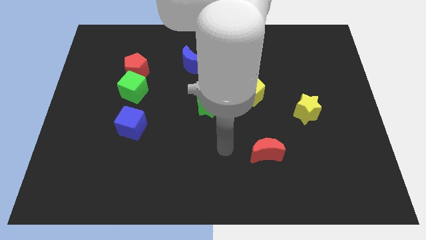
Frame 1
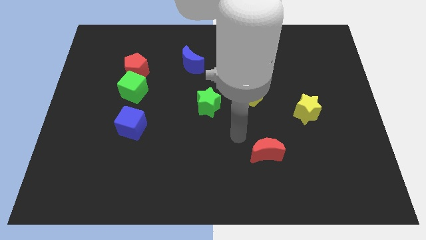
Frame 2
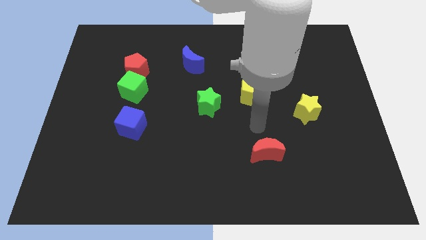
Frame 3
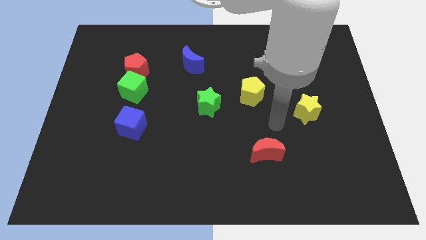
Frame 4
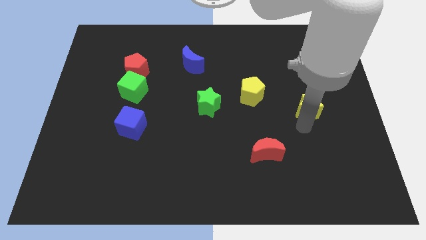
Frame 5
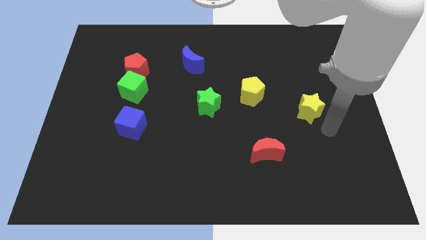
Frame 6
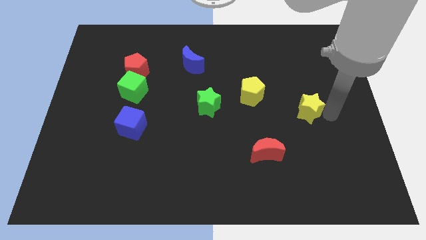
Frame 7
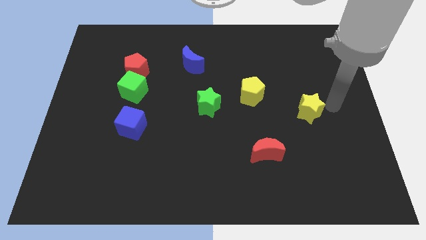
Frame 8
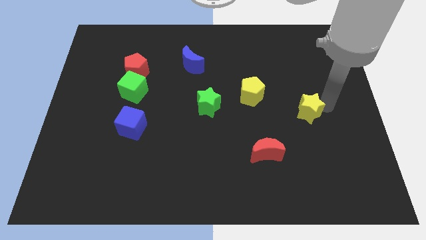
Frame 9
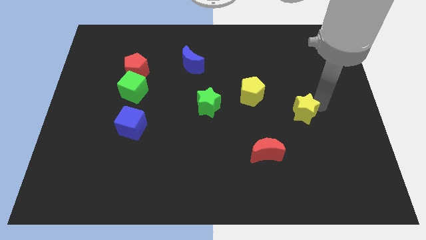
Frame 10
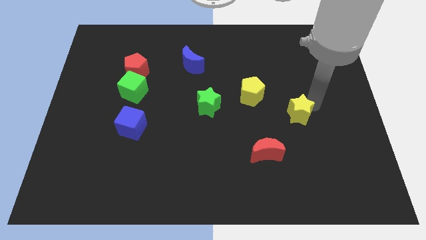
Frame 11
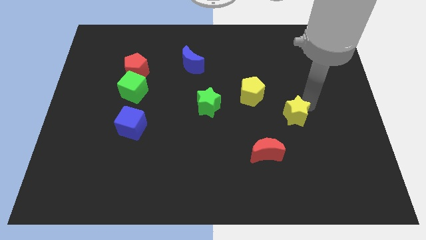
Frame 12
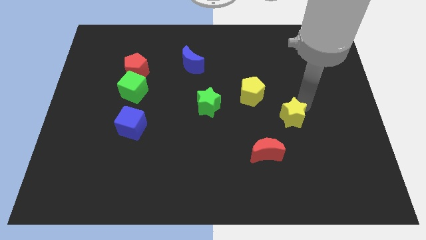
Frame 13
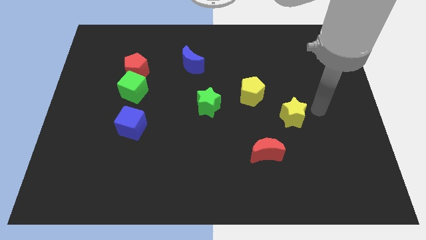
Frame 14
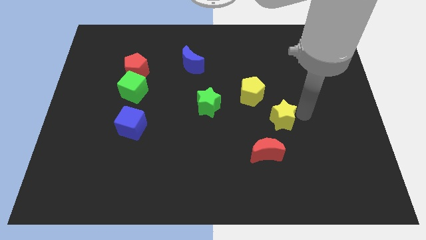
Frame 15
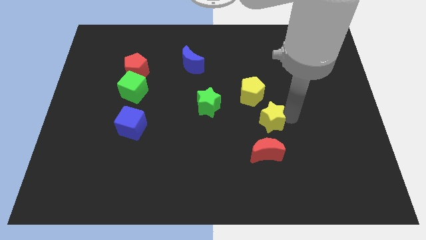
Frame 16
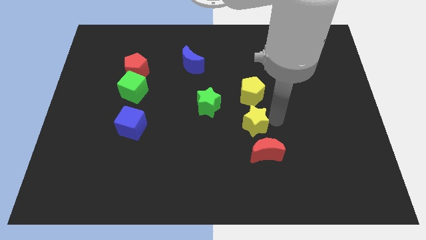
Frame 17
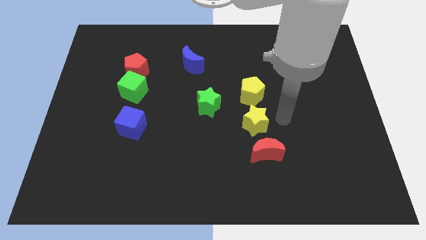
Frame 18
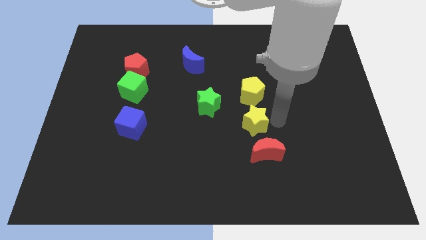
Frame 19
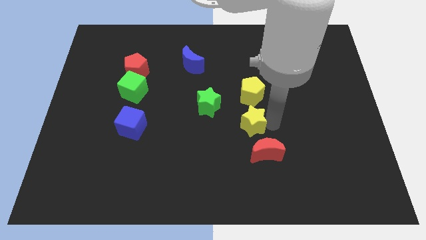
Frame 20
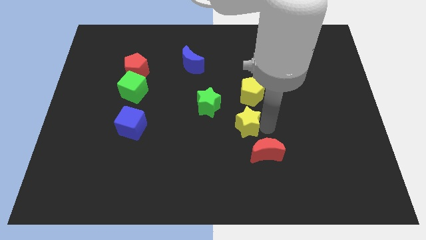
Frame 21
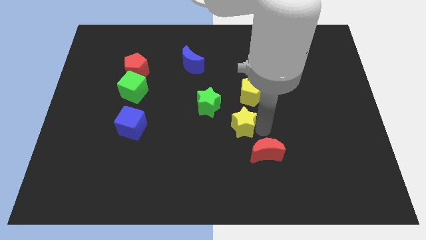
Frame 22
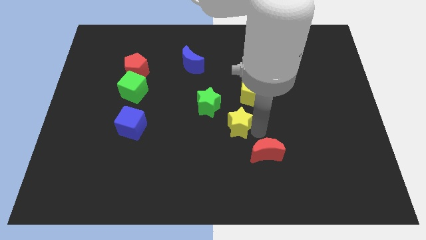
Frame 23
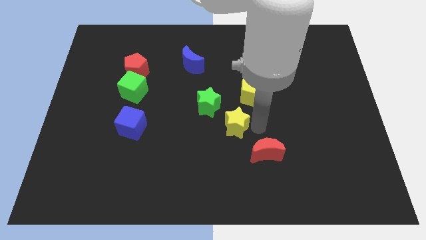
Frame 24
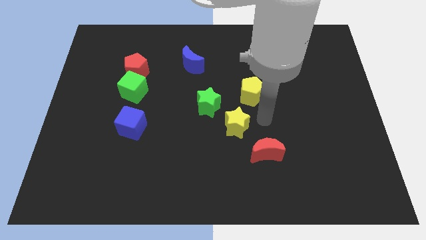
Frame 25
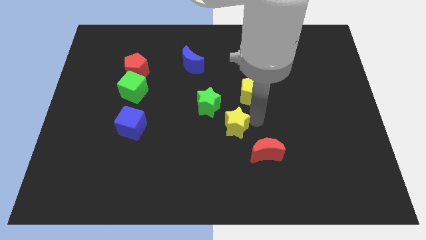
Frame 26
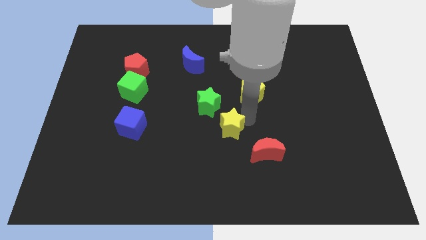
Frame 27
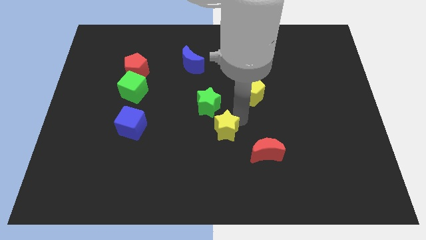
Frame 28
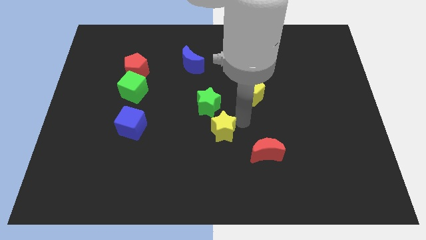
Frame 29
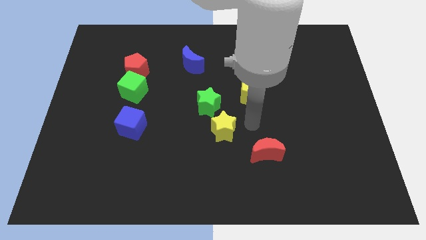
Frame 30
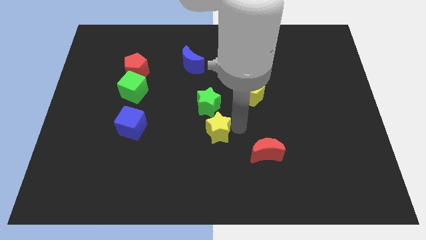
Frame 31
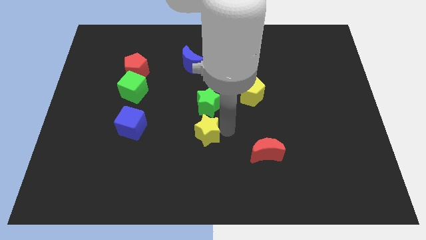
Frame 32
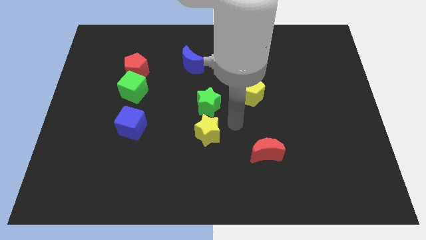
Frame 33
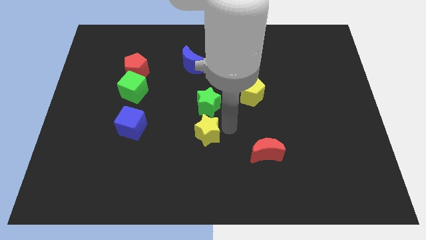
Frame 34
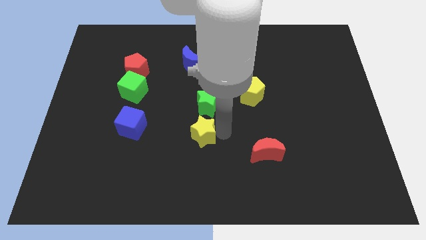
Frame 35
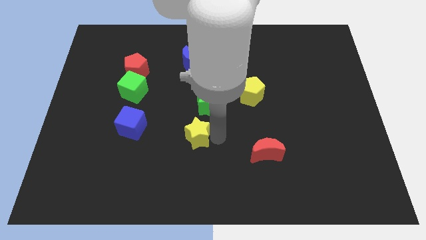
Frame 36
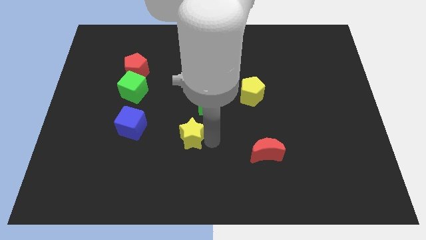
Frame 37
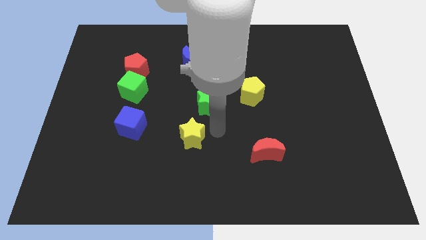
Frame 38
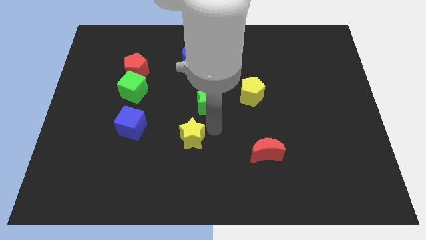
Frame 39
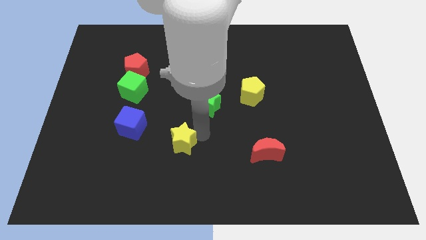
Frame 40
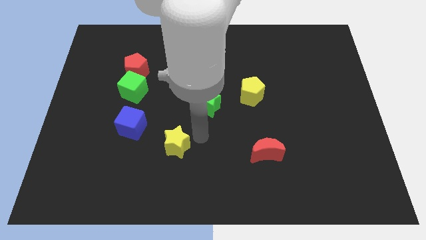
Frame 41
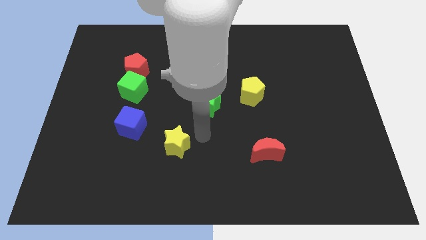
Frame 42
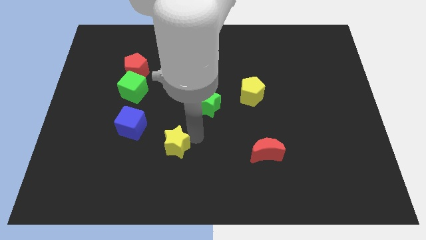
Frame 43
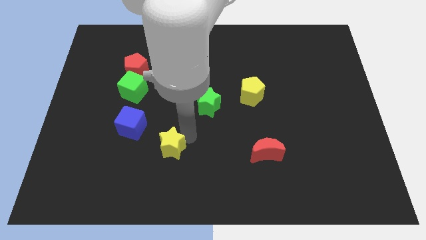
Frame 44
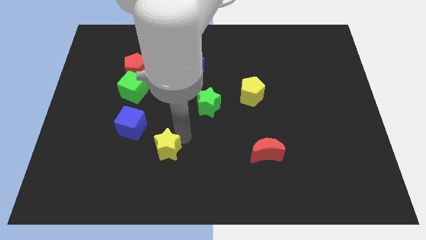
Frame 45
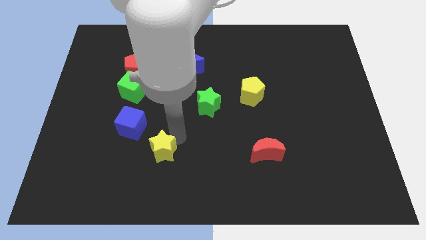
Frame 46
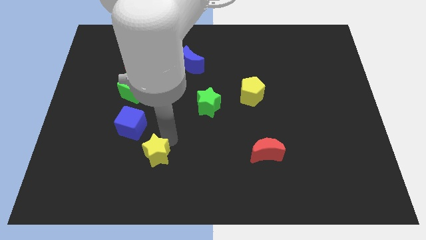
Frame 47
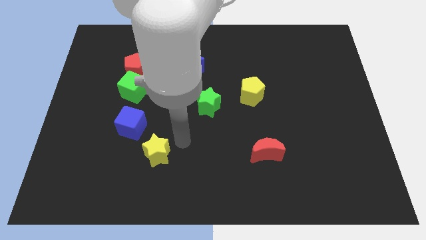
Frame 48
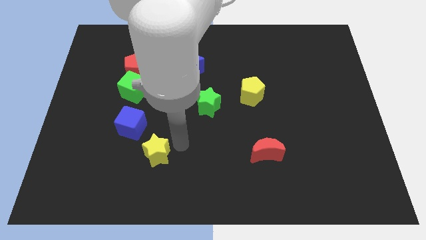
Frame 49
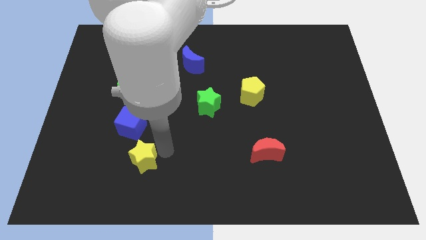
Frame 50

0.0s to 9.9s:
put the yellow star to the bottom of the blue cube

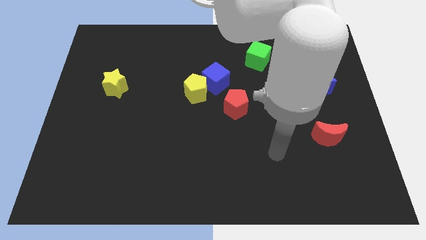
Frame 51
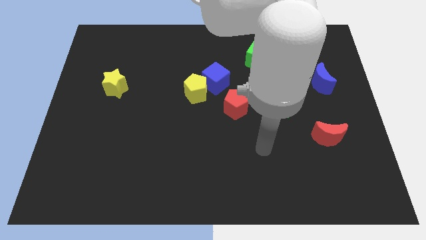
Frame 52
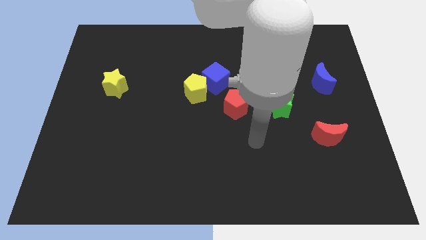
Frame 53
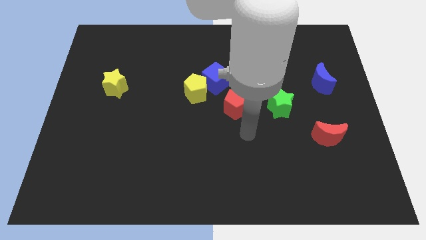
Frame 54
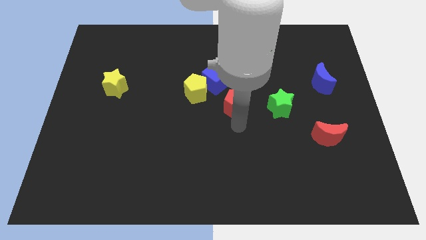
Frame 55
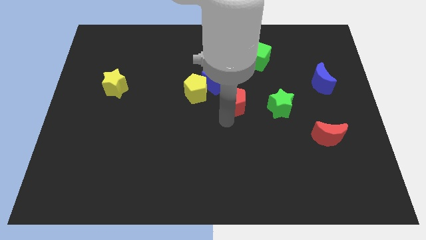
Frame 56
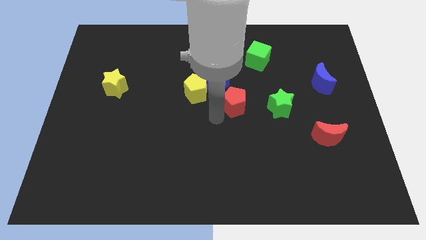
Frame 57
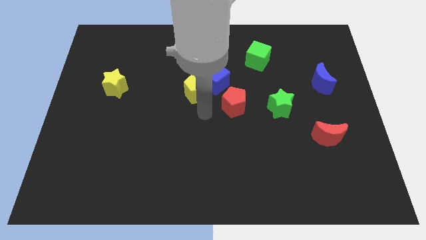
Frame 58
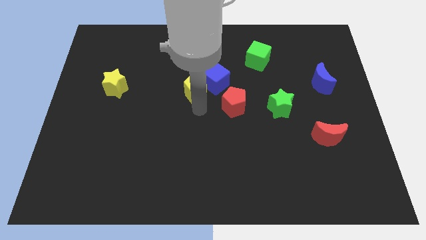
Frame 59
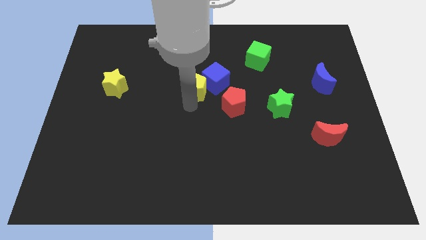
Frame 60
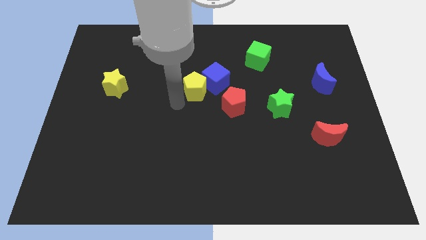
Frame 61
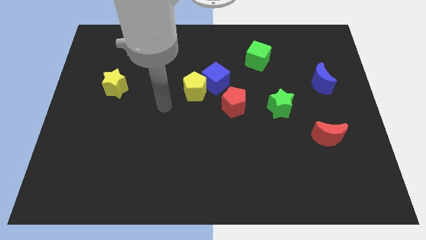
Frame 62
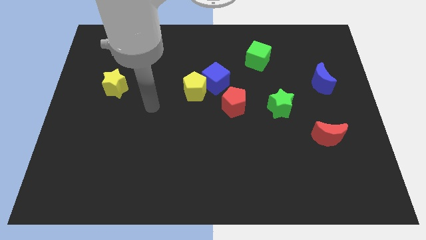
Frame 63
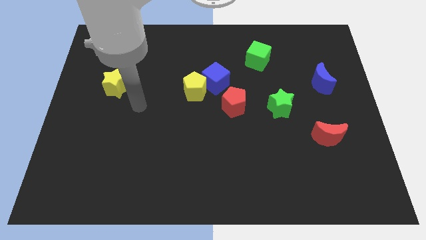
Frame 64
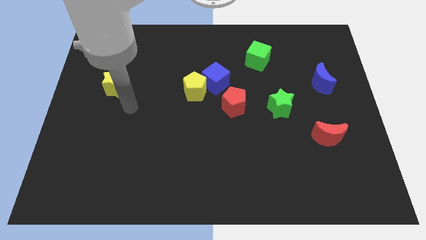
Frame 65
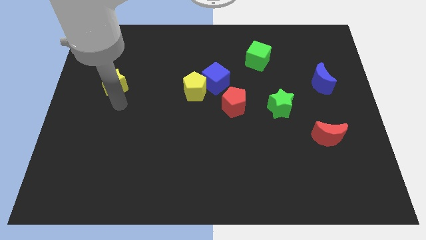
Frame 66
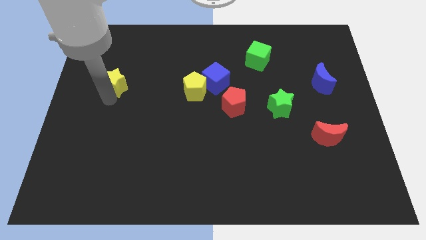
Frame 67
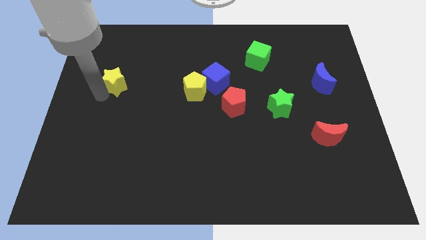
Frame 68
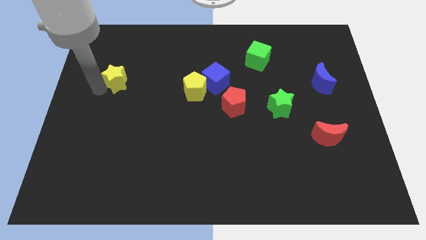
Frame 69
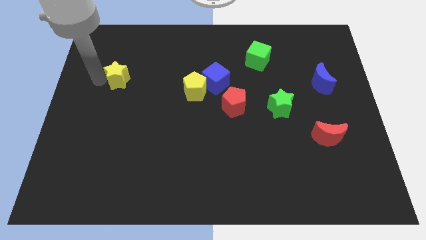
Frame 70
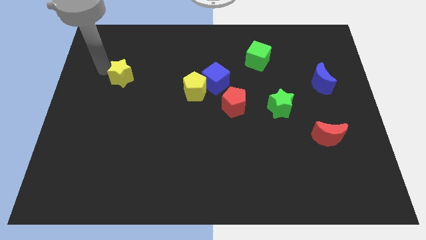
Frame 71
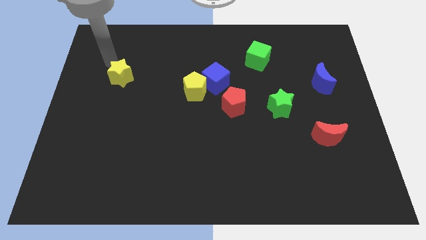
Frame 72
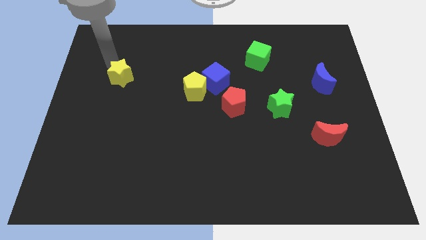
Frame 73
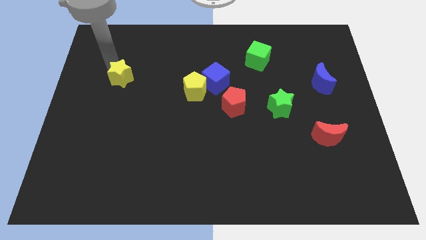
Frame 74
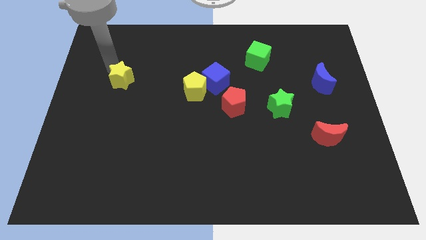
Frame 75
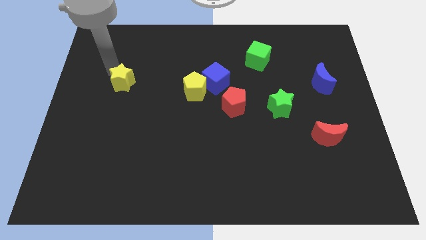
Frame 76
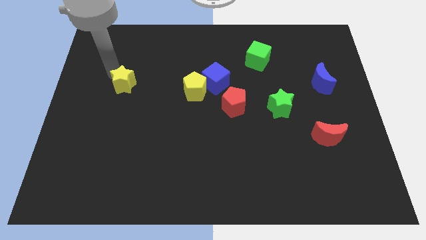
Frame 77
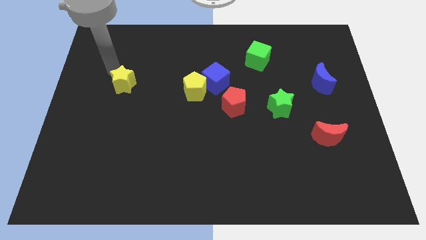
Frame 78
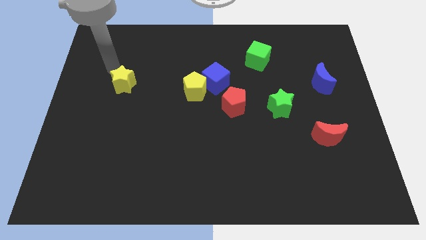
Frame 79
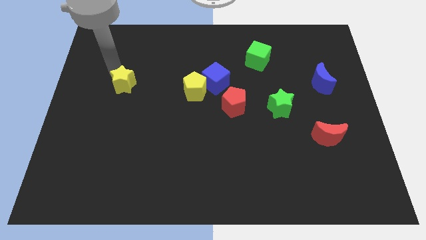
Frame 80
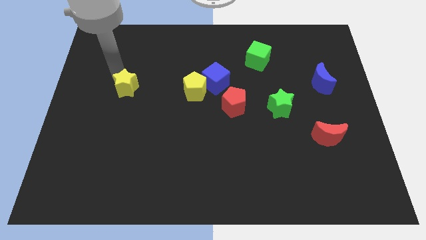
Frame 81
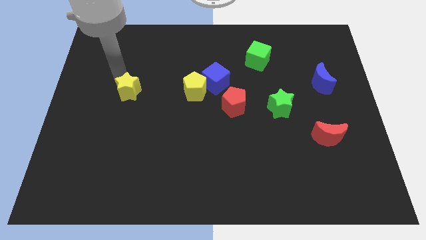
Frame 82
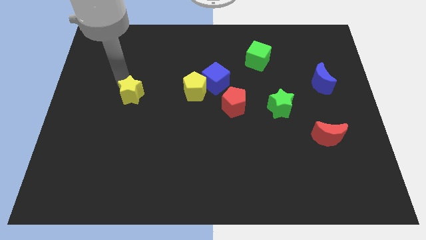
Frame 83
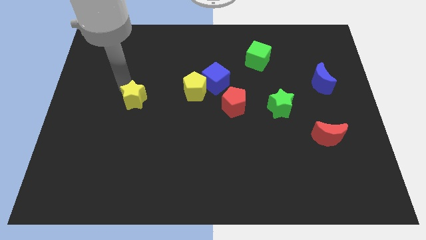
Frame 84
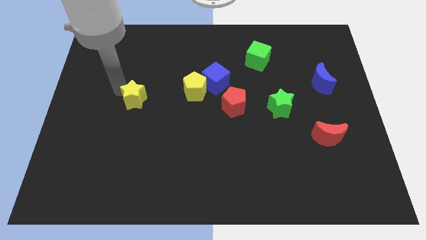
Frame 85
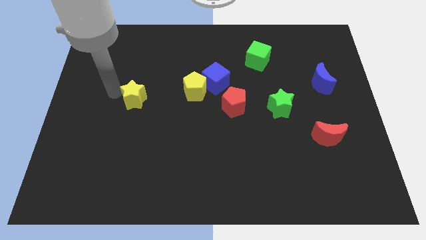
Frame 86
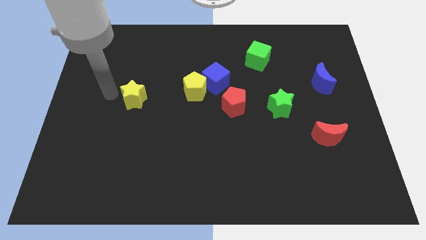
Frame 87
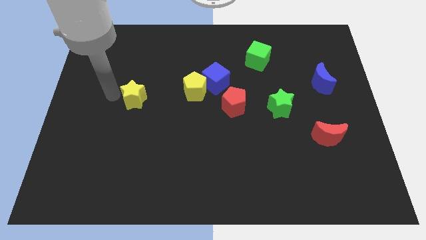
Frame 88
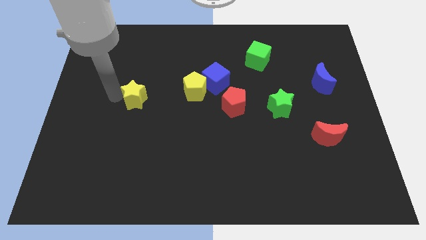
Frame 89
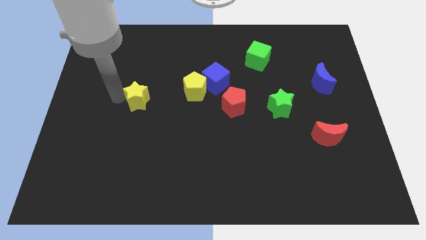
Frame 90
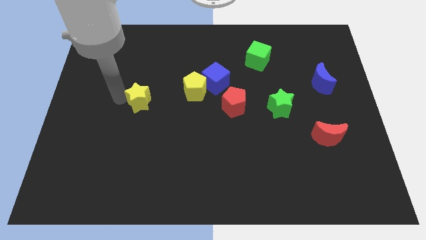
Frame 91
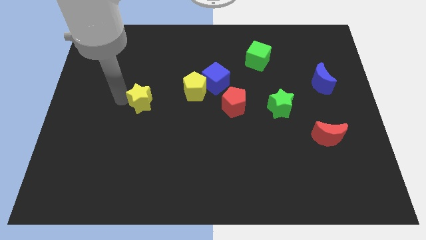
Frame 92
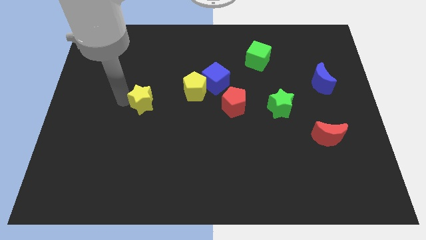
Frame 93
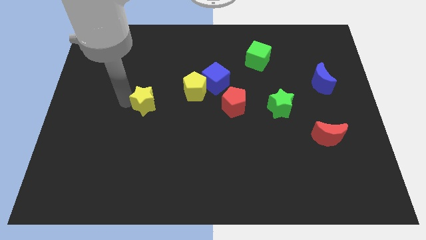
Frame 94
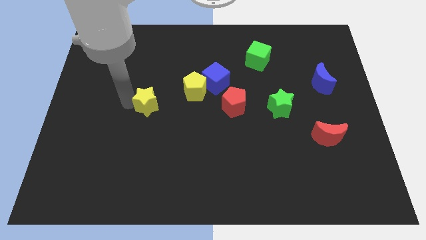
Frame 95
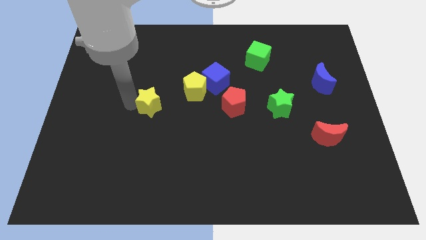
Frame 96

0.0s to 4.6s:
move the yellow star diagonally down and to the left of the yellow pentagon
